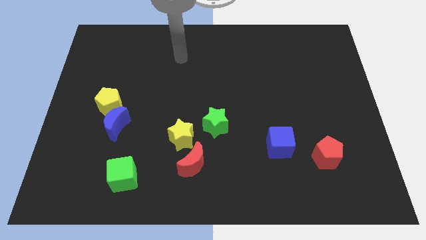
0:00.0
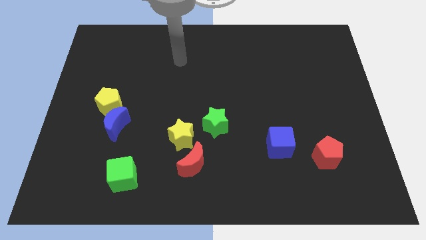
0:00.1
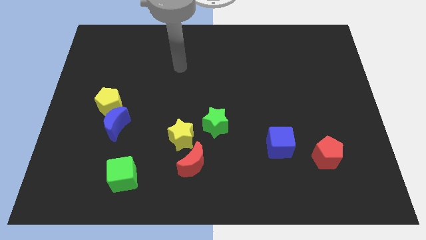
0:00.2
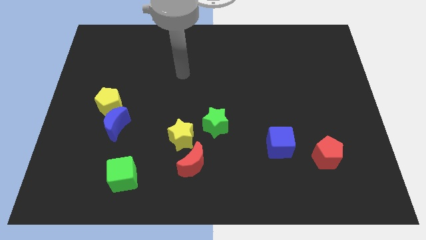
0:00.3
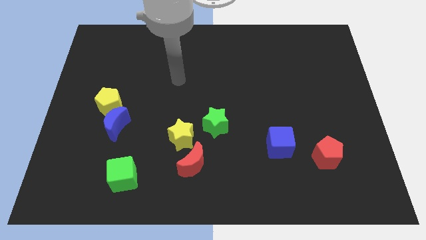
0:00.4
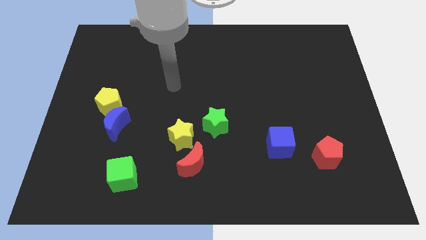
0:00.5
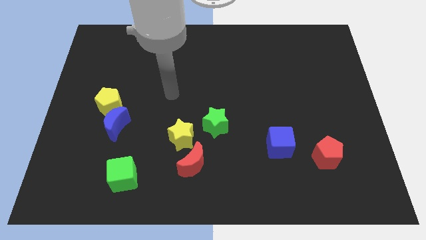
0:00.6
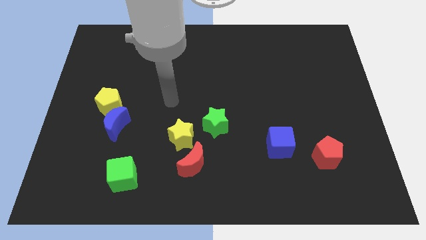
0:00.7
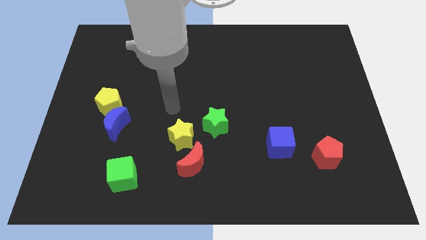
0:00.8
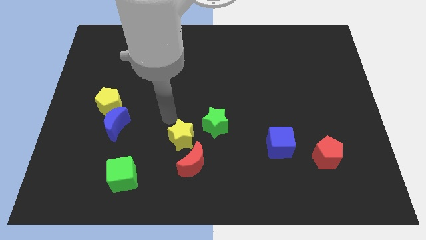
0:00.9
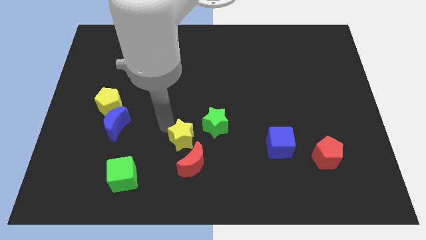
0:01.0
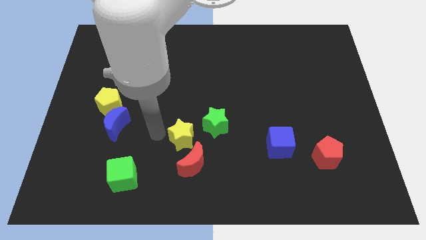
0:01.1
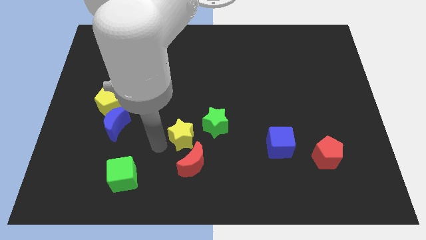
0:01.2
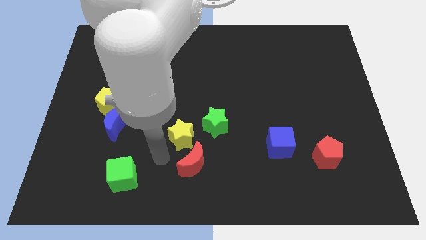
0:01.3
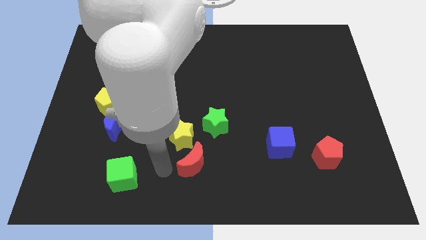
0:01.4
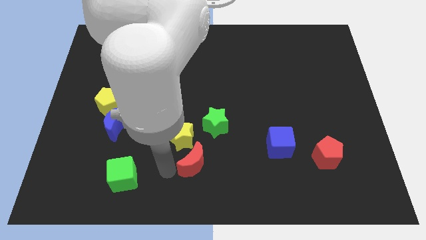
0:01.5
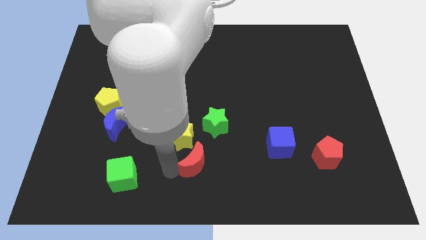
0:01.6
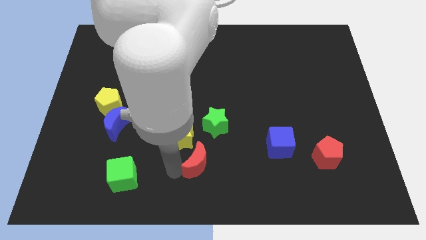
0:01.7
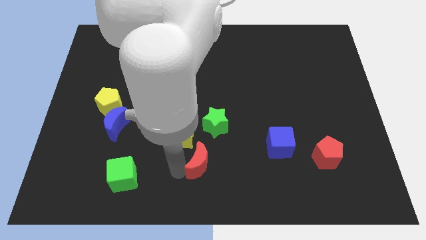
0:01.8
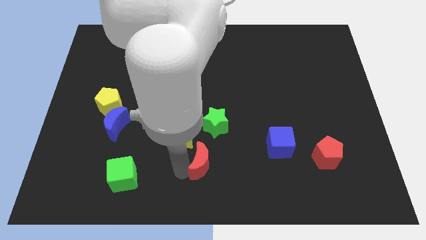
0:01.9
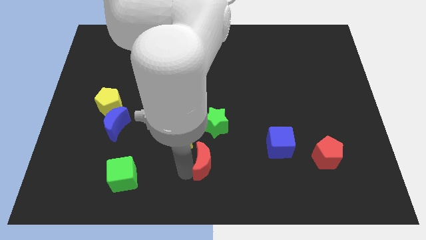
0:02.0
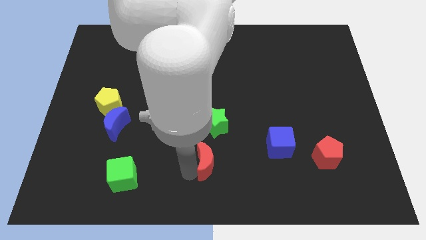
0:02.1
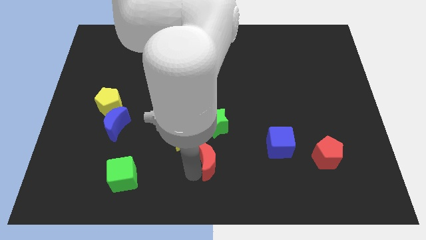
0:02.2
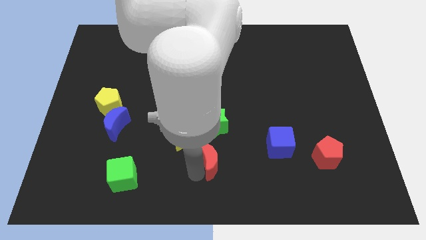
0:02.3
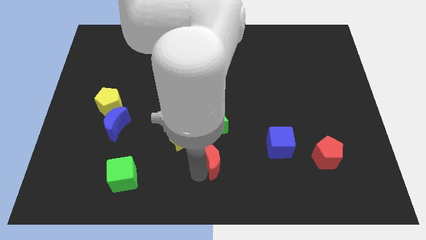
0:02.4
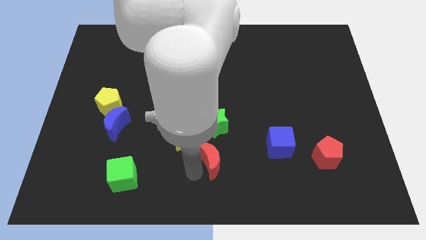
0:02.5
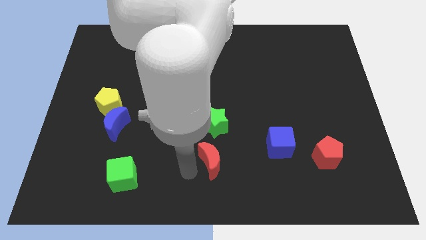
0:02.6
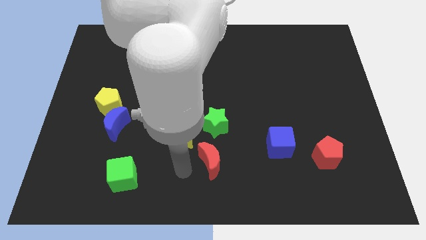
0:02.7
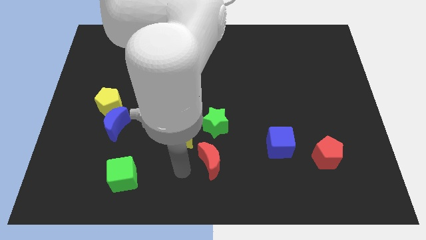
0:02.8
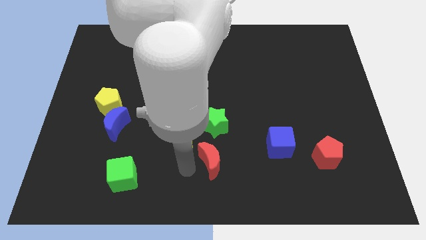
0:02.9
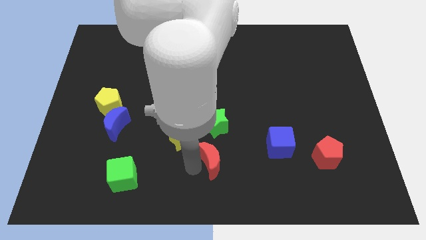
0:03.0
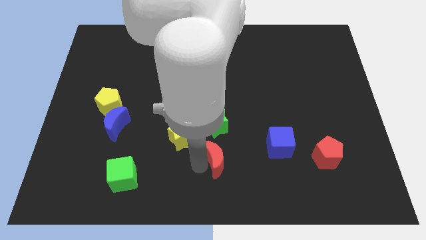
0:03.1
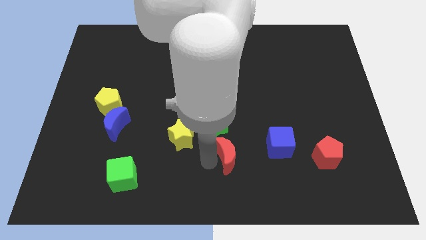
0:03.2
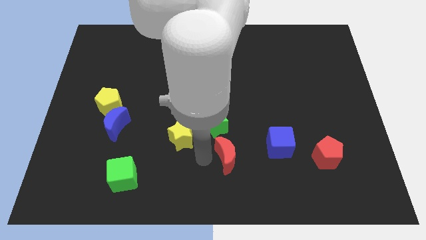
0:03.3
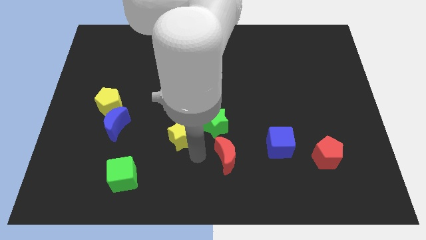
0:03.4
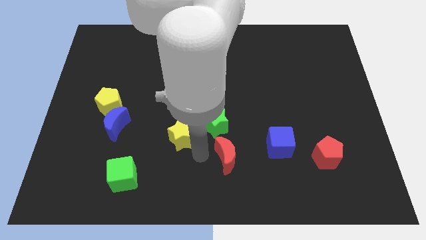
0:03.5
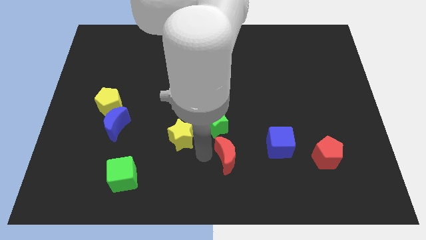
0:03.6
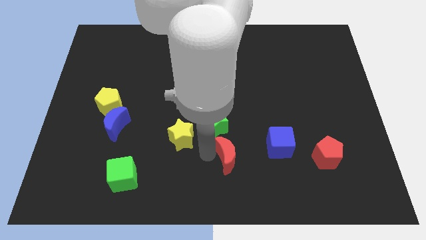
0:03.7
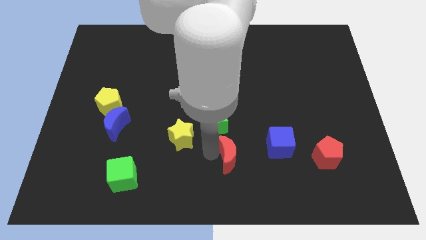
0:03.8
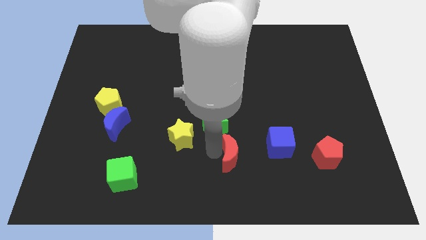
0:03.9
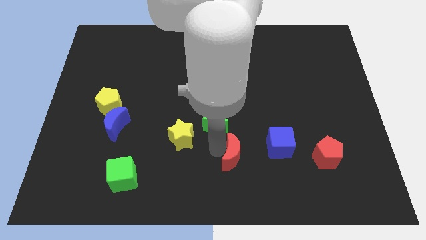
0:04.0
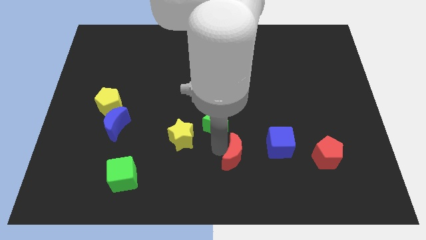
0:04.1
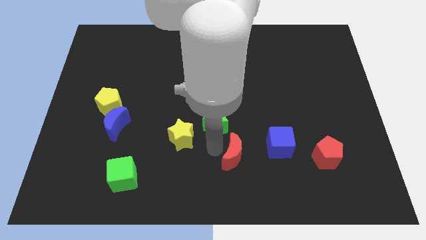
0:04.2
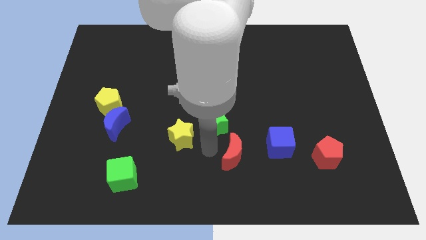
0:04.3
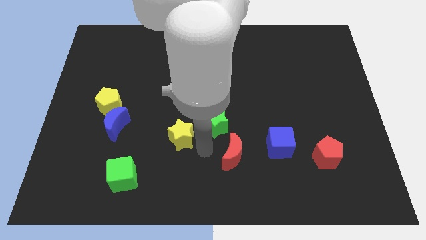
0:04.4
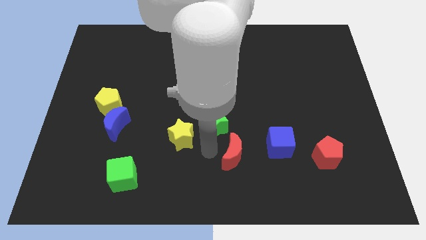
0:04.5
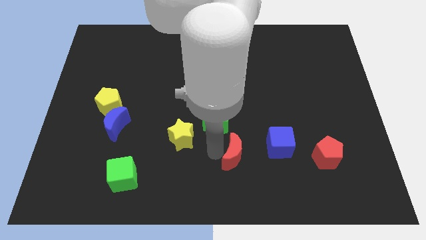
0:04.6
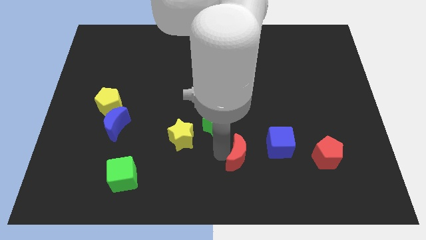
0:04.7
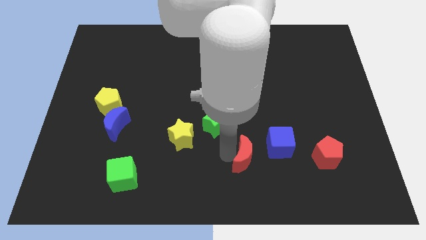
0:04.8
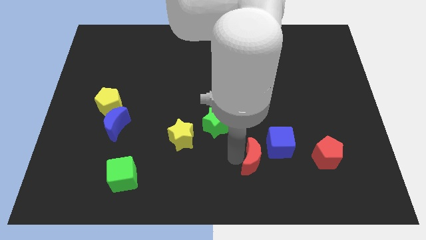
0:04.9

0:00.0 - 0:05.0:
put the red moon just left of the red pentagon

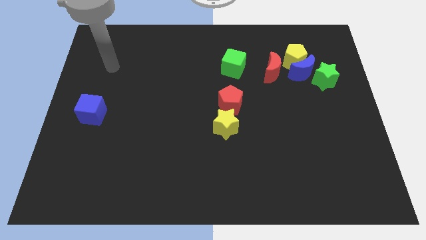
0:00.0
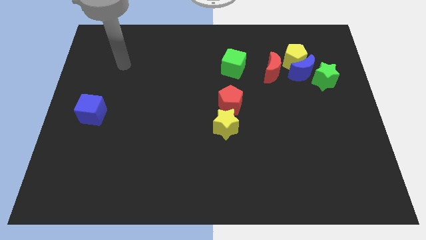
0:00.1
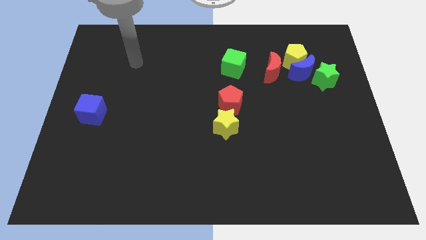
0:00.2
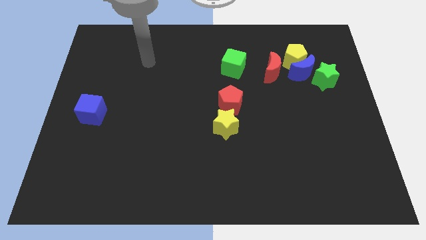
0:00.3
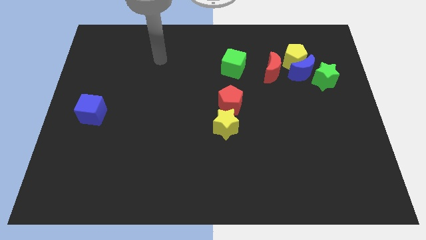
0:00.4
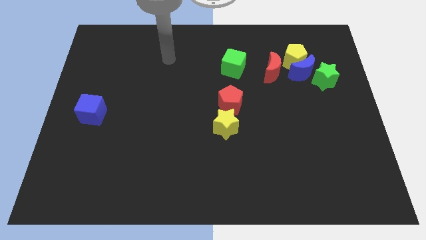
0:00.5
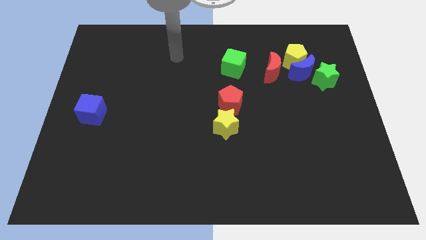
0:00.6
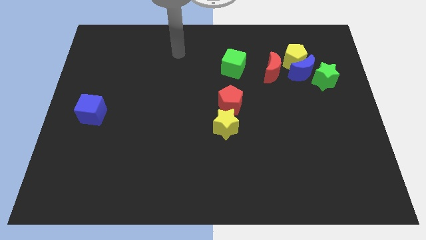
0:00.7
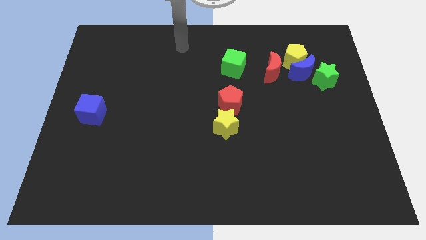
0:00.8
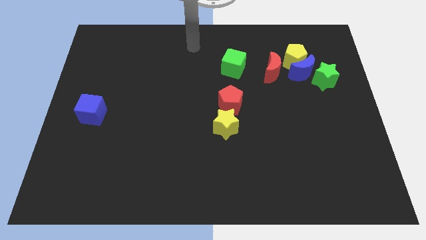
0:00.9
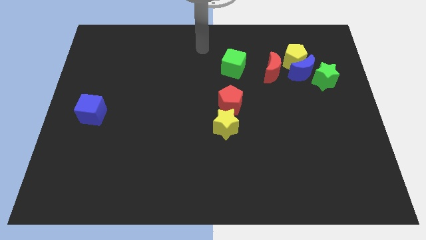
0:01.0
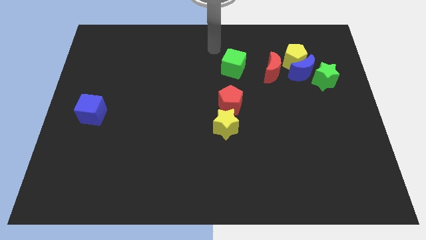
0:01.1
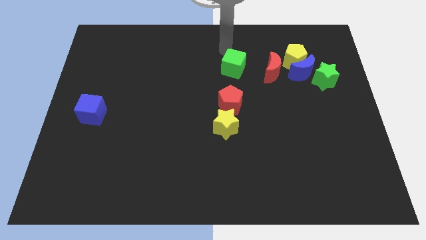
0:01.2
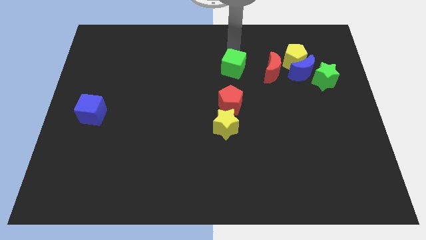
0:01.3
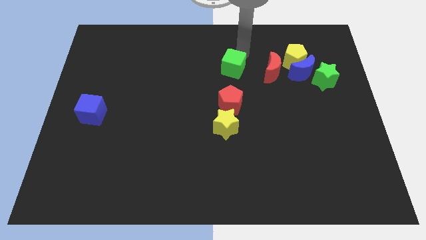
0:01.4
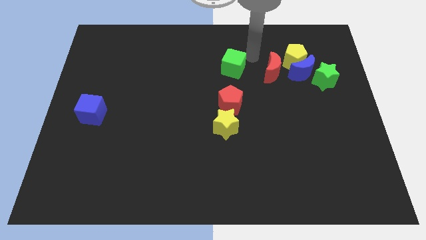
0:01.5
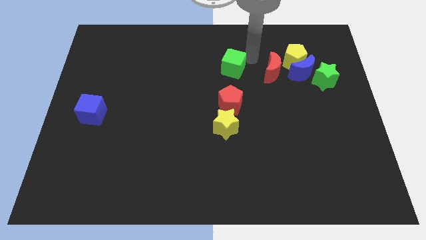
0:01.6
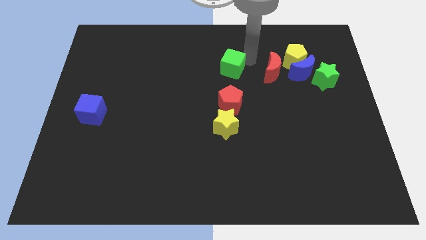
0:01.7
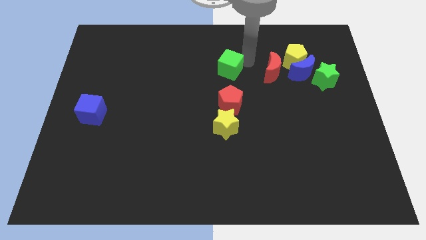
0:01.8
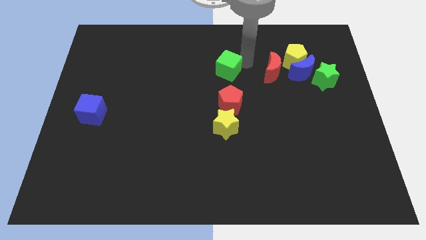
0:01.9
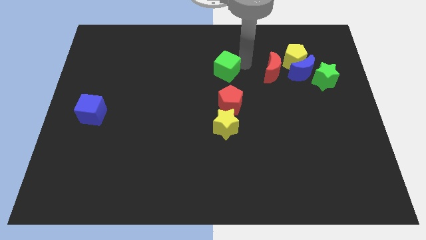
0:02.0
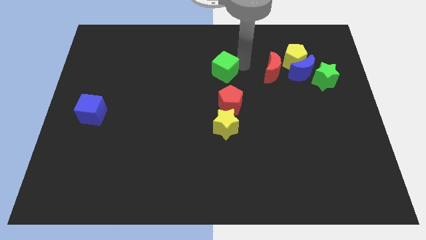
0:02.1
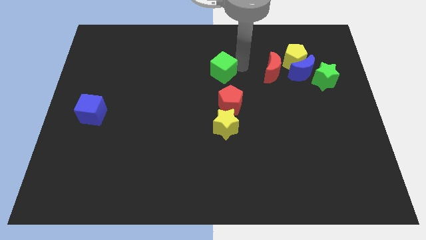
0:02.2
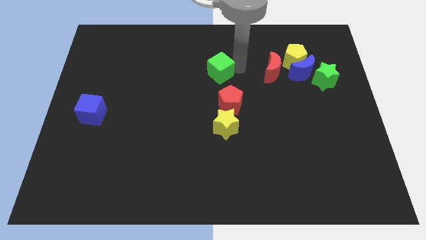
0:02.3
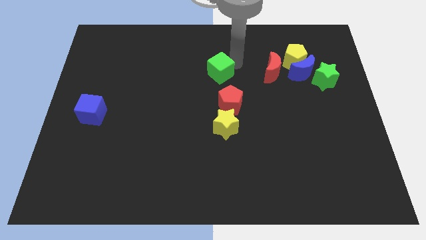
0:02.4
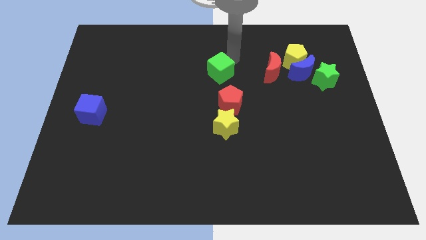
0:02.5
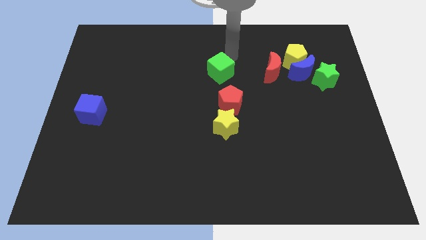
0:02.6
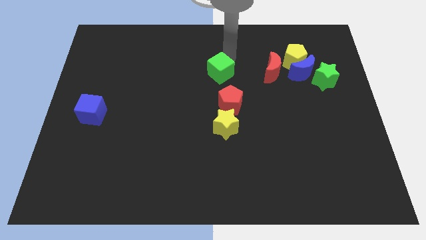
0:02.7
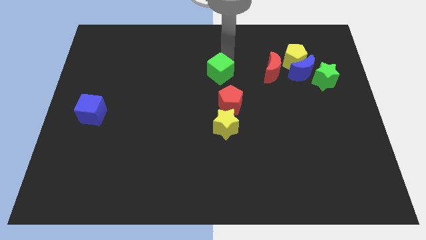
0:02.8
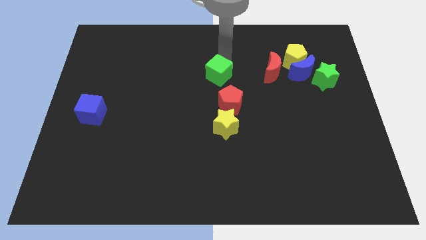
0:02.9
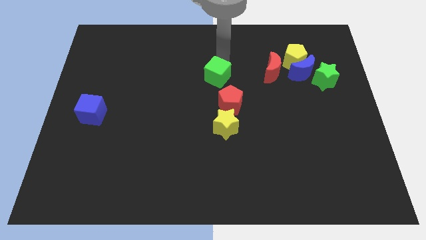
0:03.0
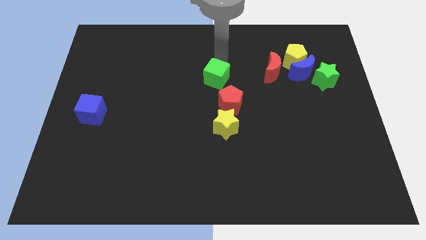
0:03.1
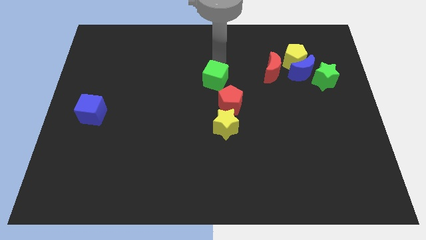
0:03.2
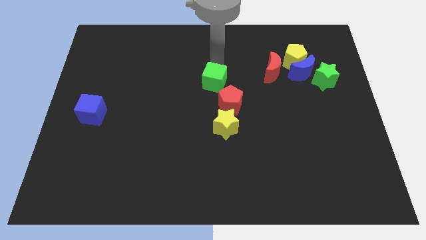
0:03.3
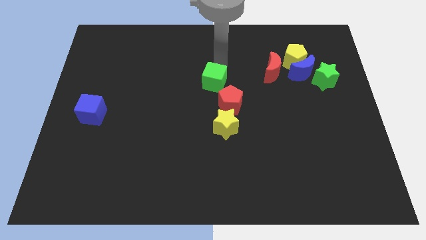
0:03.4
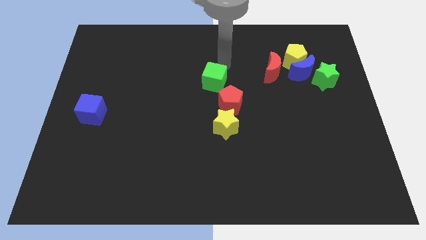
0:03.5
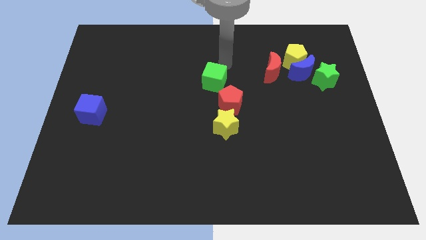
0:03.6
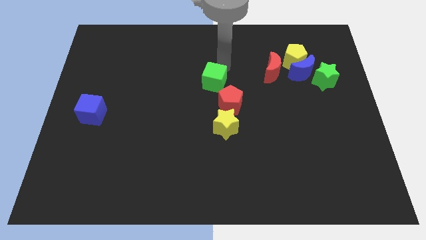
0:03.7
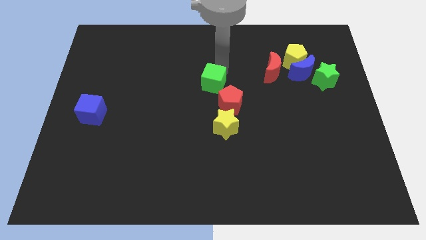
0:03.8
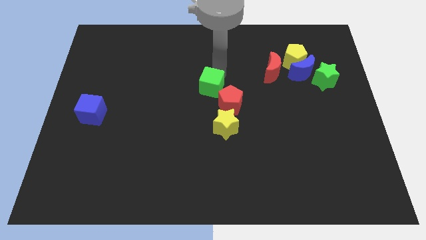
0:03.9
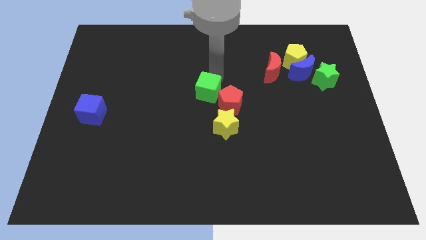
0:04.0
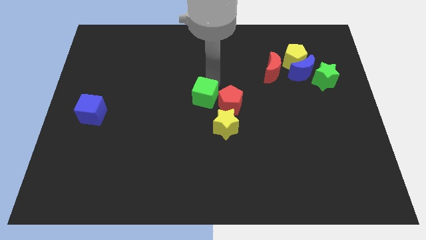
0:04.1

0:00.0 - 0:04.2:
push the green cube diagonally up and to the left of the yellow star
